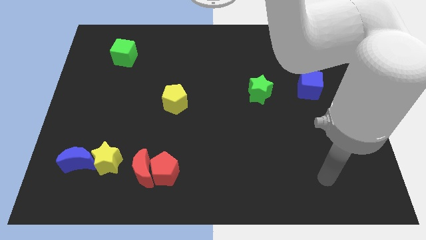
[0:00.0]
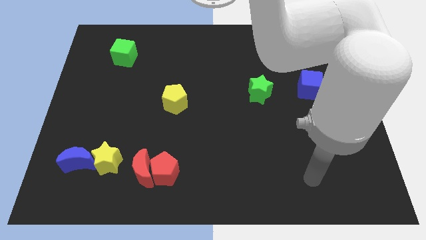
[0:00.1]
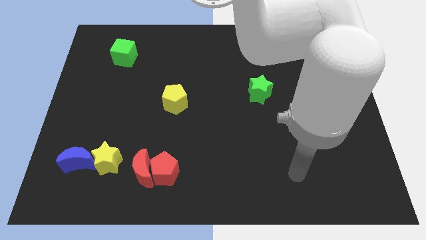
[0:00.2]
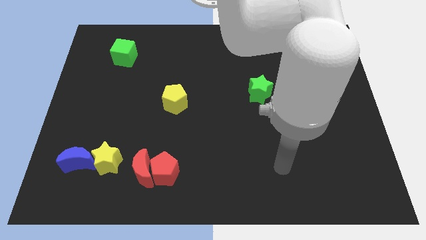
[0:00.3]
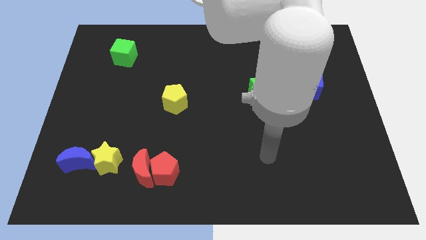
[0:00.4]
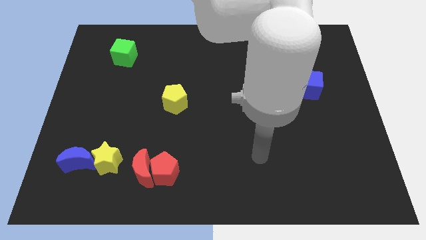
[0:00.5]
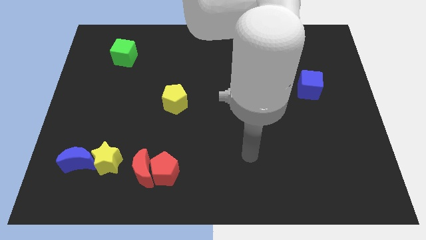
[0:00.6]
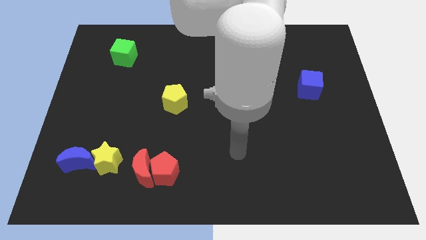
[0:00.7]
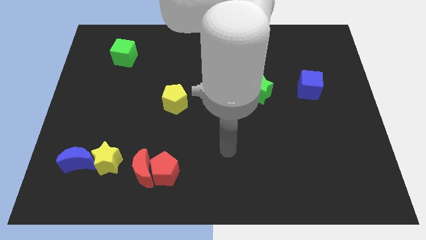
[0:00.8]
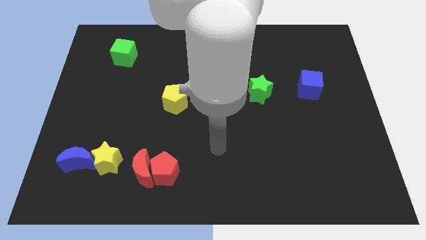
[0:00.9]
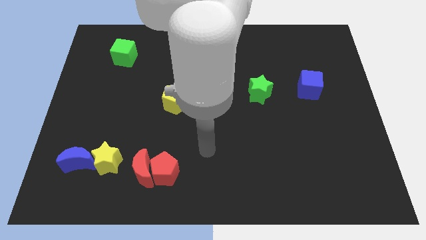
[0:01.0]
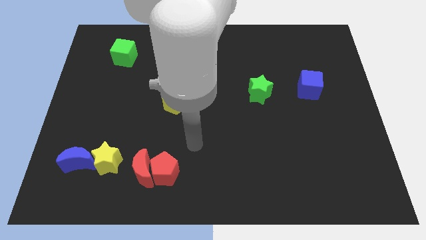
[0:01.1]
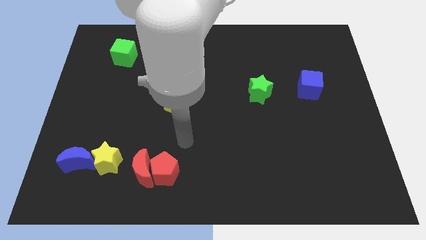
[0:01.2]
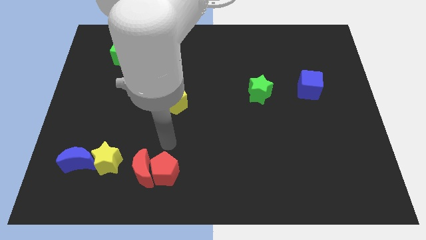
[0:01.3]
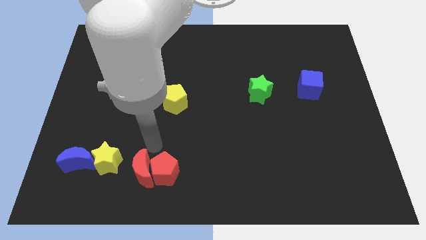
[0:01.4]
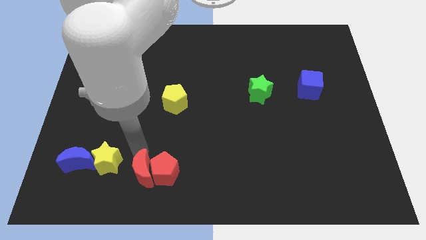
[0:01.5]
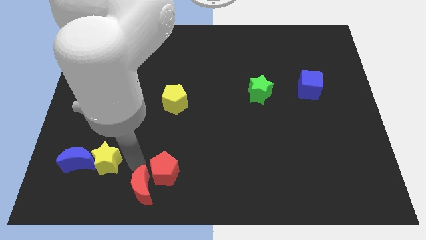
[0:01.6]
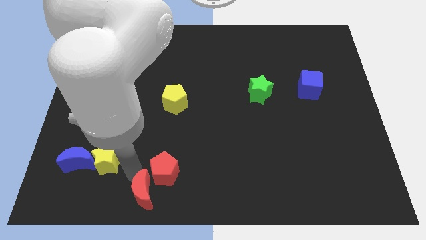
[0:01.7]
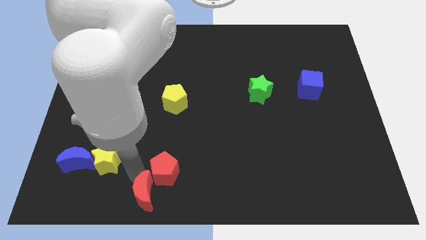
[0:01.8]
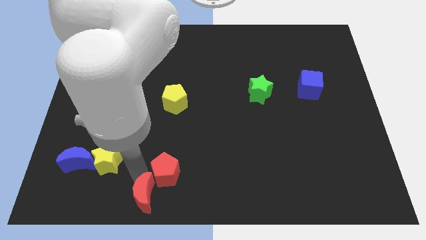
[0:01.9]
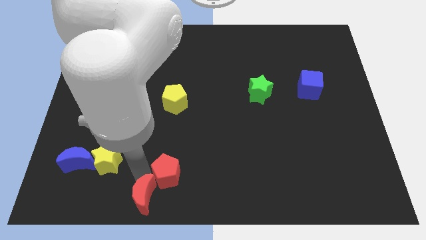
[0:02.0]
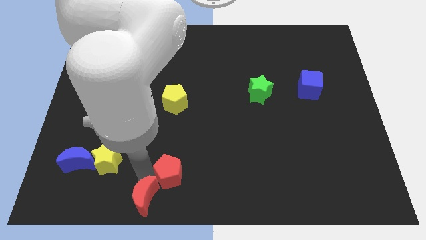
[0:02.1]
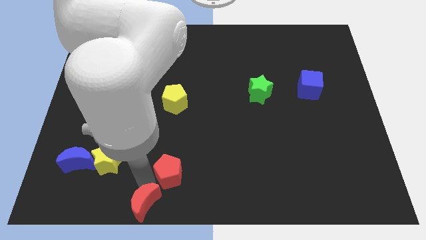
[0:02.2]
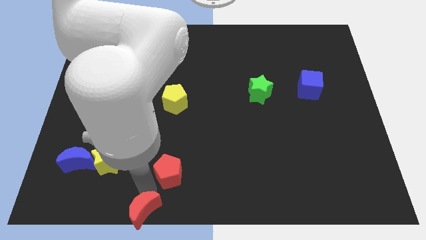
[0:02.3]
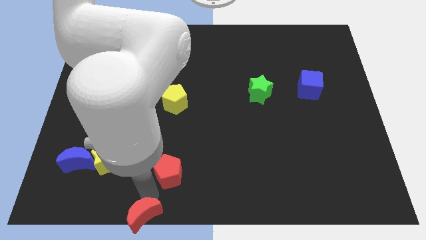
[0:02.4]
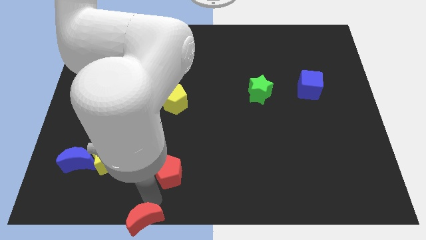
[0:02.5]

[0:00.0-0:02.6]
move the red pentagon away from the red moon

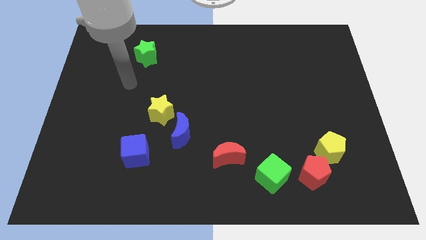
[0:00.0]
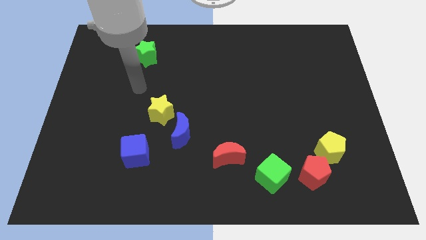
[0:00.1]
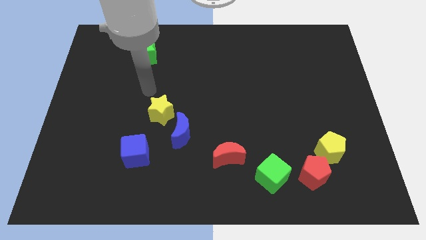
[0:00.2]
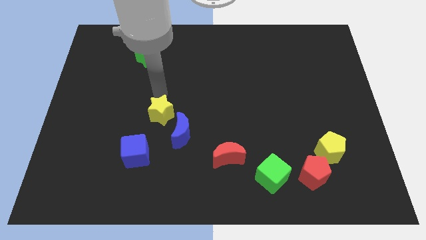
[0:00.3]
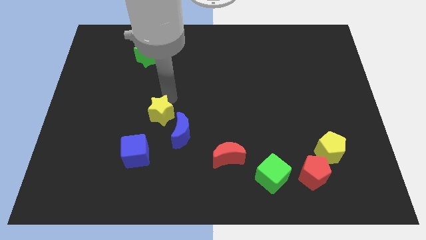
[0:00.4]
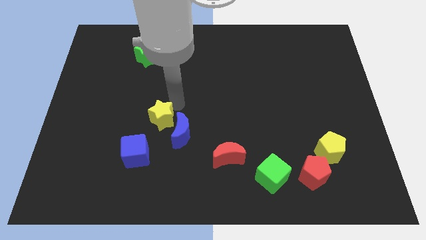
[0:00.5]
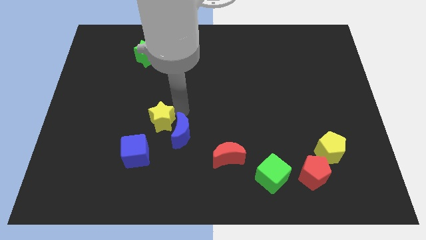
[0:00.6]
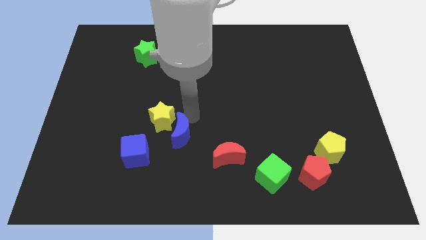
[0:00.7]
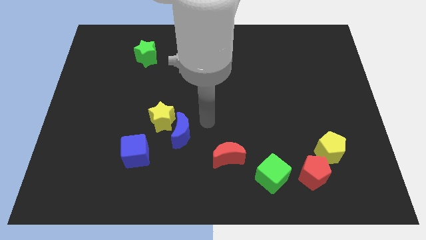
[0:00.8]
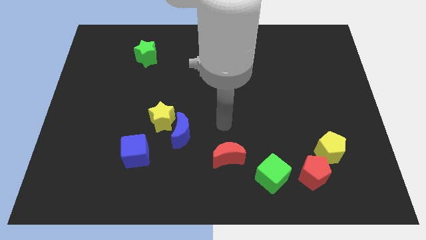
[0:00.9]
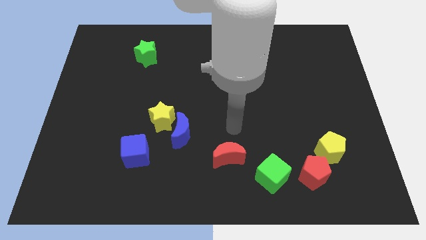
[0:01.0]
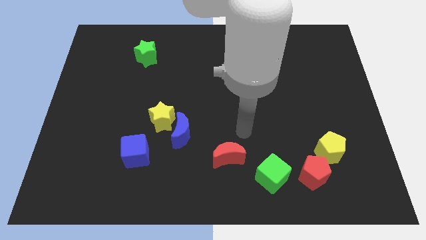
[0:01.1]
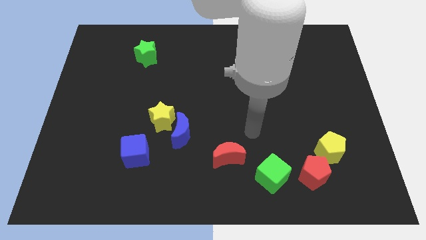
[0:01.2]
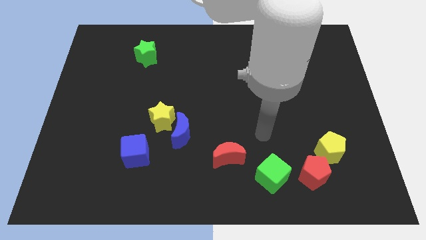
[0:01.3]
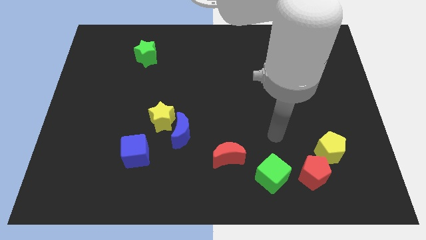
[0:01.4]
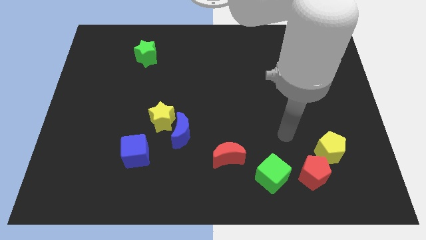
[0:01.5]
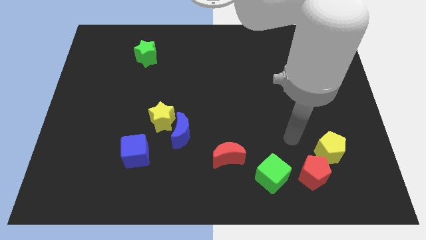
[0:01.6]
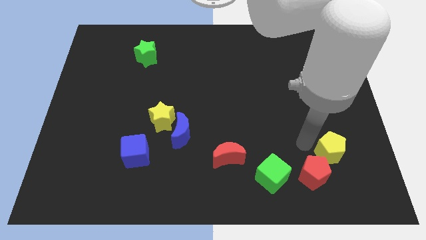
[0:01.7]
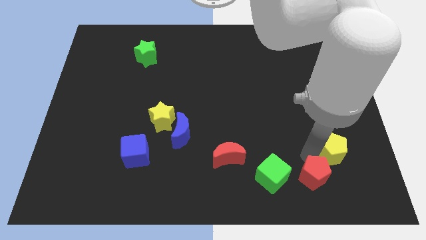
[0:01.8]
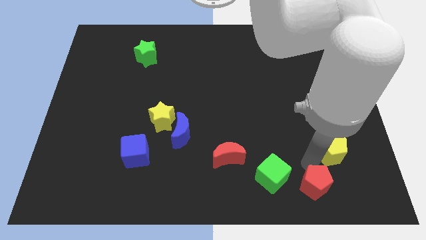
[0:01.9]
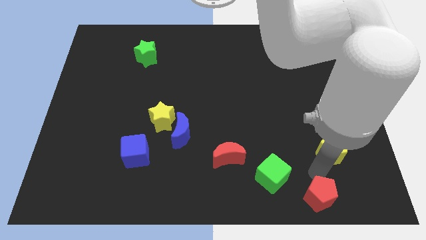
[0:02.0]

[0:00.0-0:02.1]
separate the yellow pentagon from the red pentagon

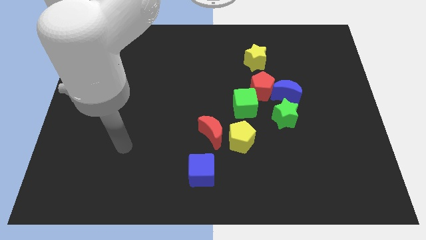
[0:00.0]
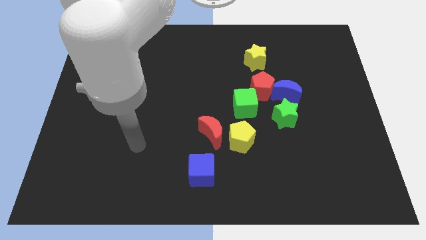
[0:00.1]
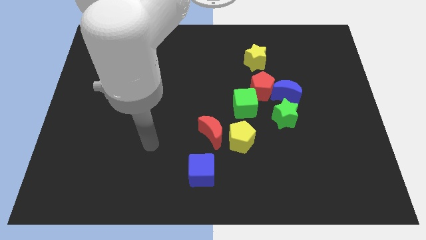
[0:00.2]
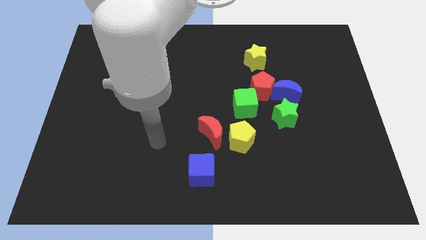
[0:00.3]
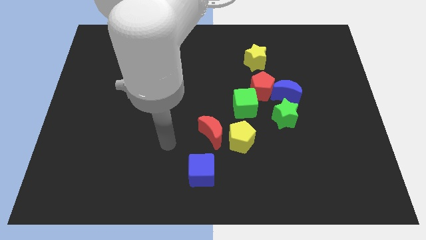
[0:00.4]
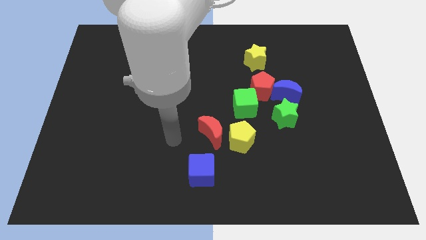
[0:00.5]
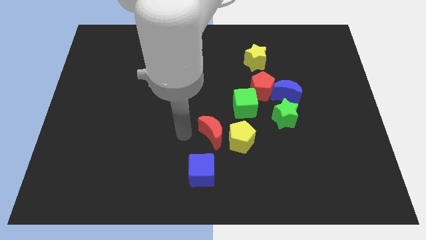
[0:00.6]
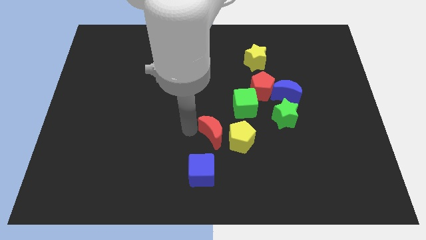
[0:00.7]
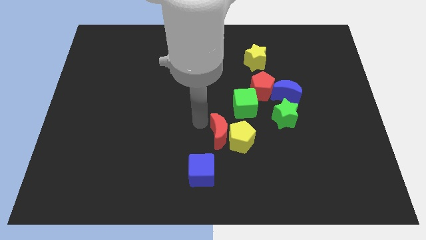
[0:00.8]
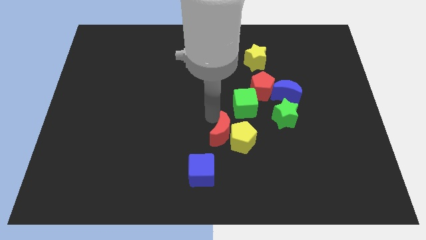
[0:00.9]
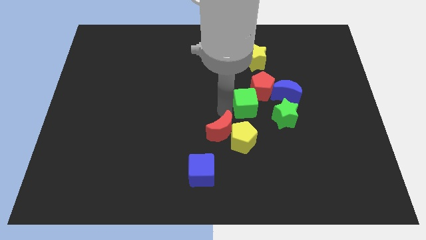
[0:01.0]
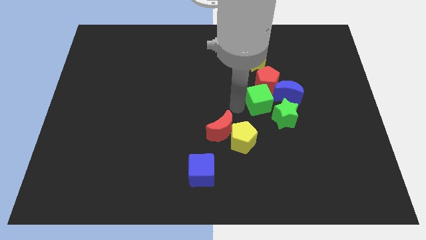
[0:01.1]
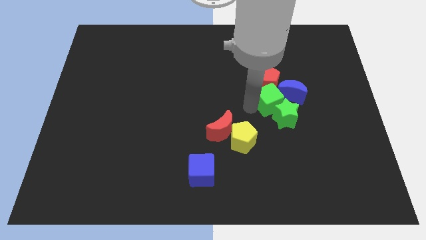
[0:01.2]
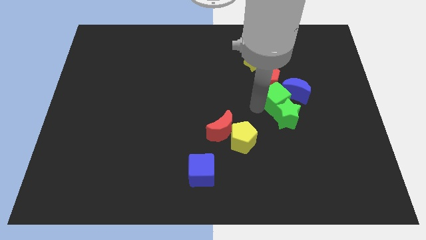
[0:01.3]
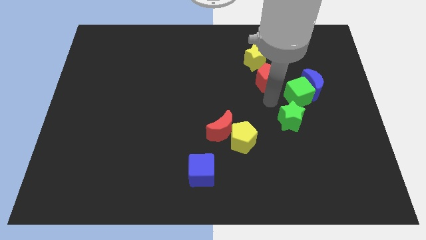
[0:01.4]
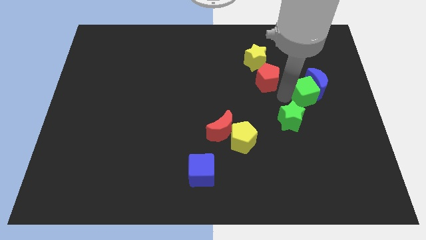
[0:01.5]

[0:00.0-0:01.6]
move the blue moon away from the red pentagon and green star

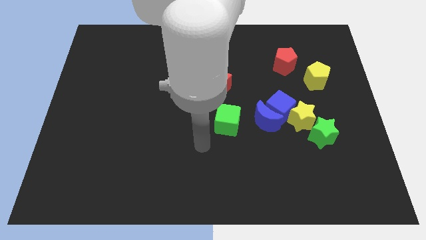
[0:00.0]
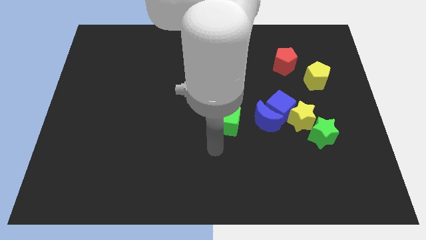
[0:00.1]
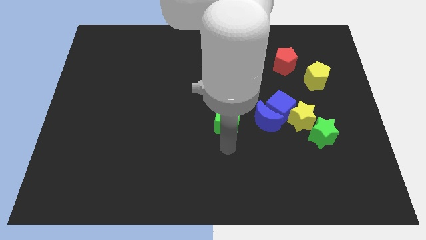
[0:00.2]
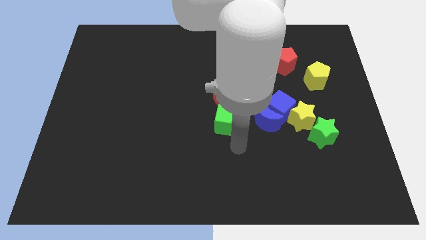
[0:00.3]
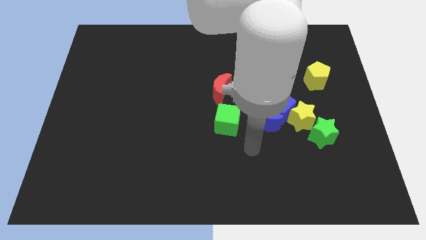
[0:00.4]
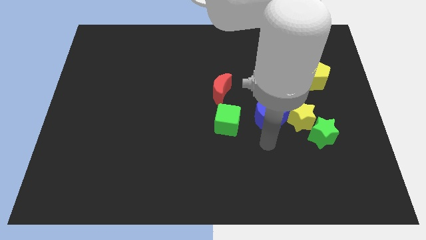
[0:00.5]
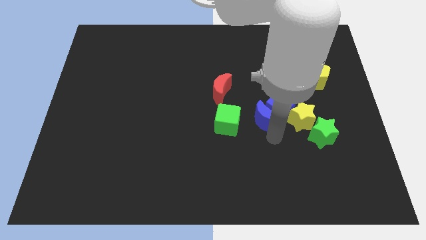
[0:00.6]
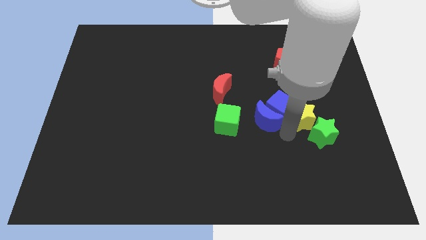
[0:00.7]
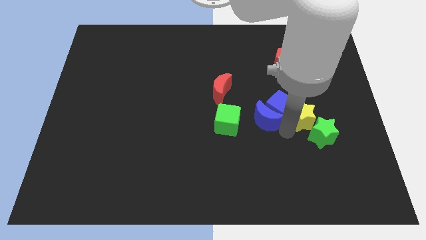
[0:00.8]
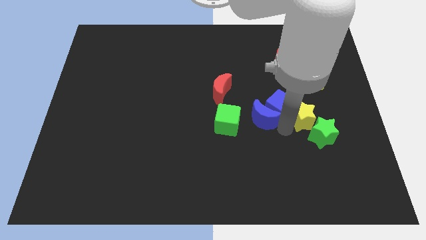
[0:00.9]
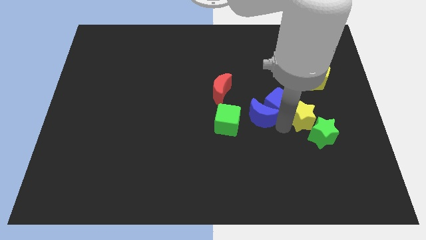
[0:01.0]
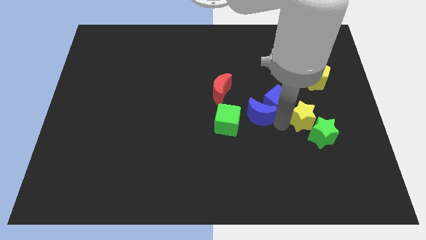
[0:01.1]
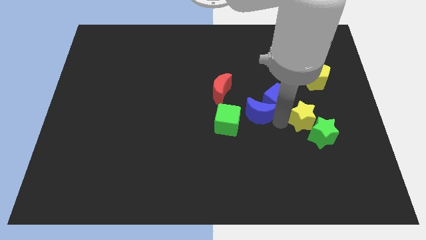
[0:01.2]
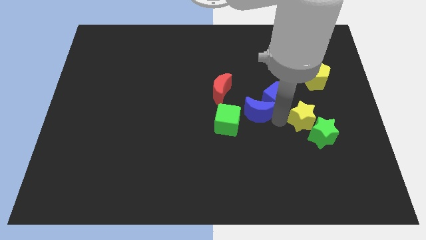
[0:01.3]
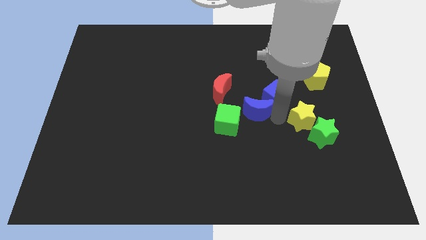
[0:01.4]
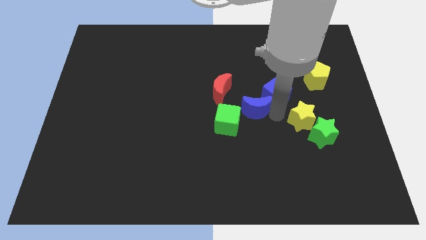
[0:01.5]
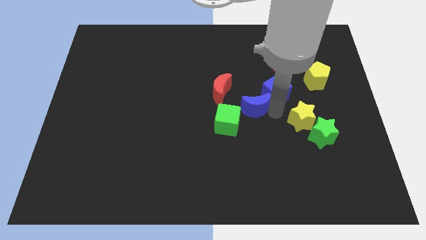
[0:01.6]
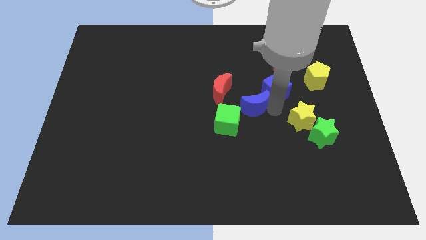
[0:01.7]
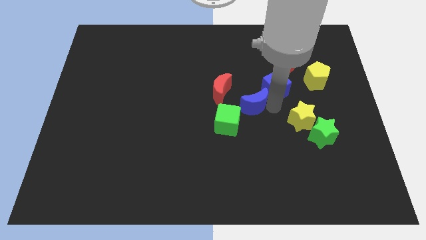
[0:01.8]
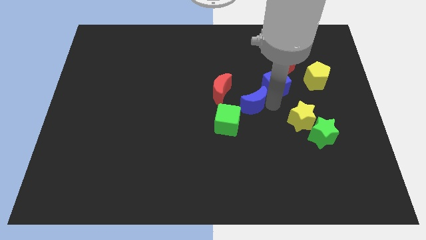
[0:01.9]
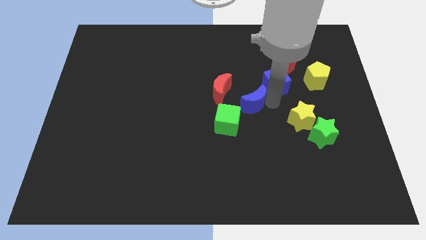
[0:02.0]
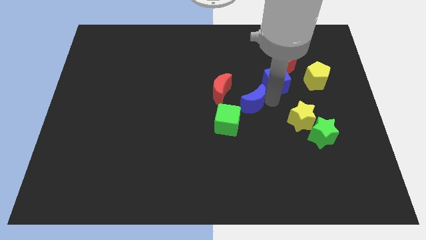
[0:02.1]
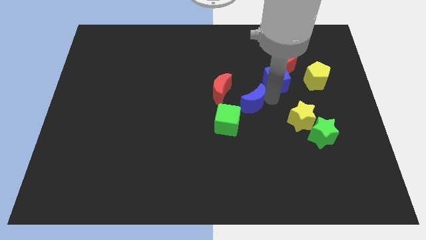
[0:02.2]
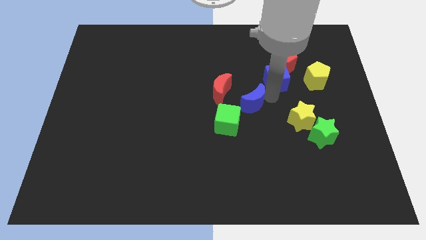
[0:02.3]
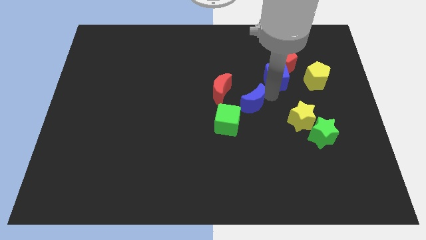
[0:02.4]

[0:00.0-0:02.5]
separate the blue cube from the blue moon and yellow star

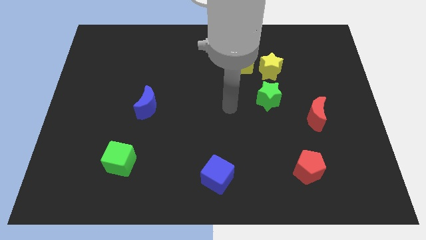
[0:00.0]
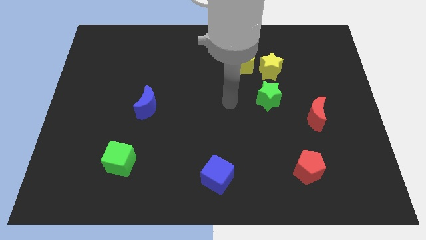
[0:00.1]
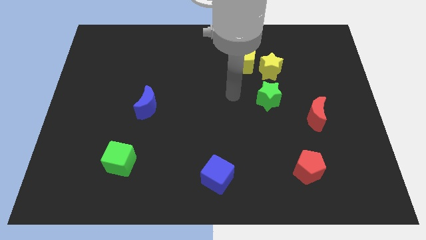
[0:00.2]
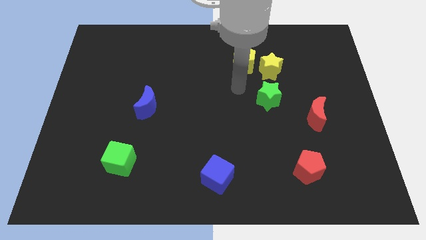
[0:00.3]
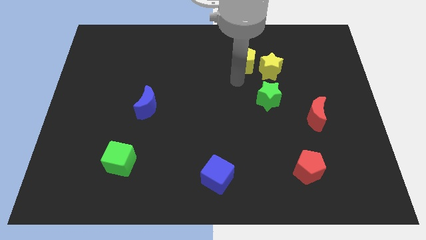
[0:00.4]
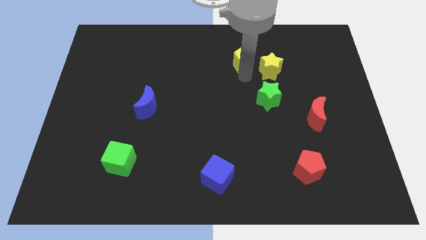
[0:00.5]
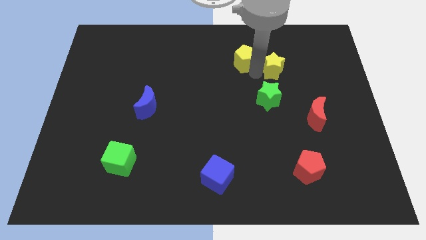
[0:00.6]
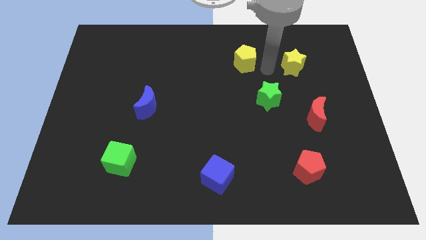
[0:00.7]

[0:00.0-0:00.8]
separate the yellow pentagon from the yellow star
